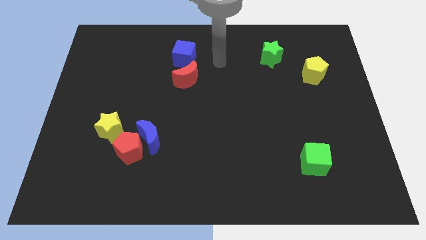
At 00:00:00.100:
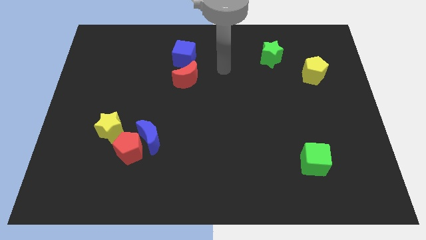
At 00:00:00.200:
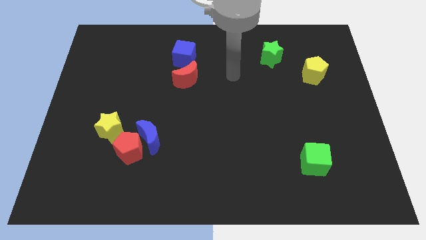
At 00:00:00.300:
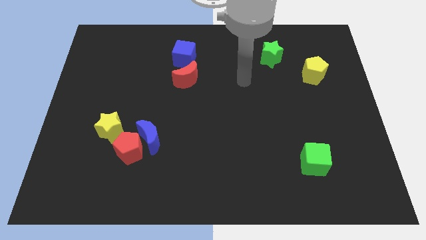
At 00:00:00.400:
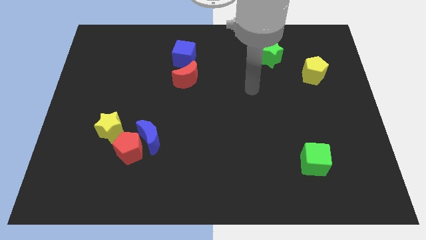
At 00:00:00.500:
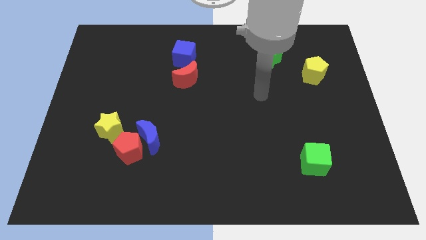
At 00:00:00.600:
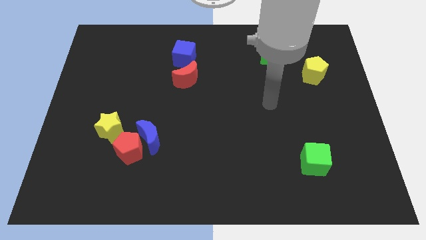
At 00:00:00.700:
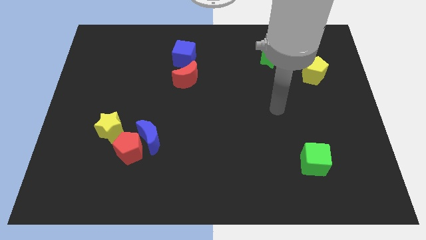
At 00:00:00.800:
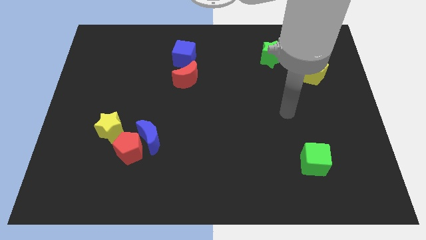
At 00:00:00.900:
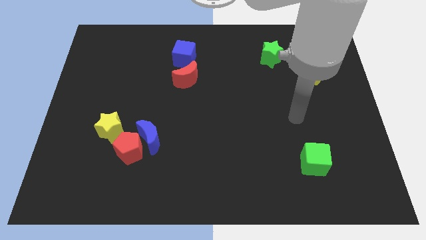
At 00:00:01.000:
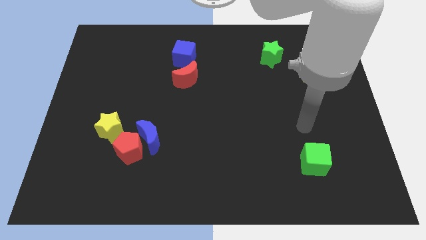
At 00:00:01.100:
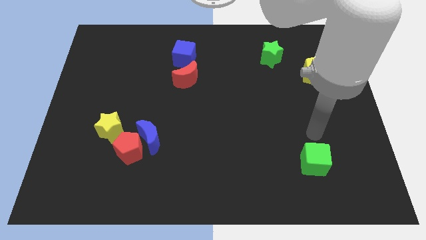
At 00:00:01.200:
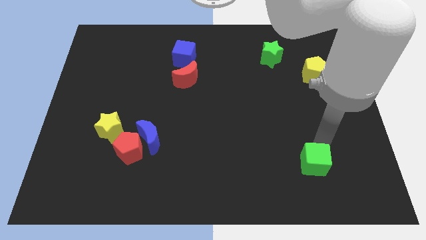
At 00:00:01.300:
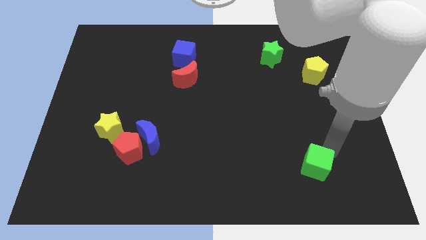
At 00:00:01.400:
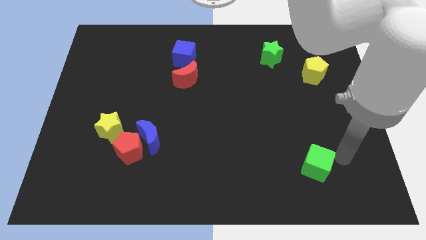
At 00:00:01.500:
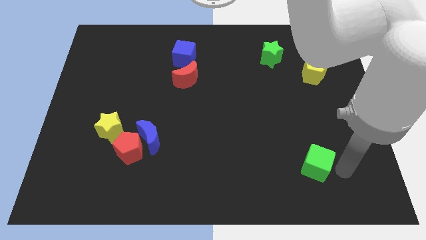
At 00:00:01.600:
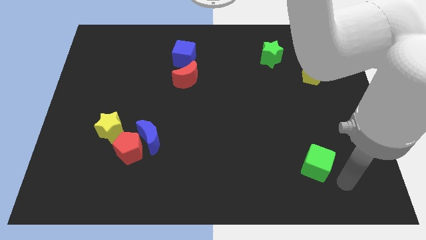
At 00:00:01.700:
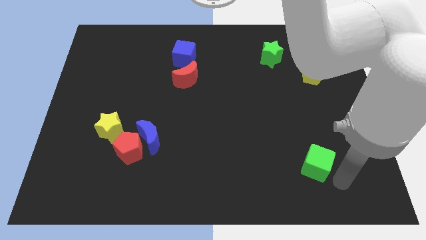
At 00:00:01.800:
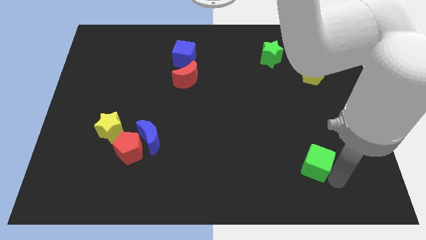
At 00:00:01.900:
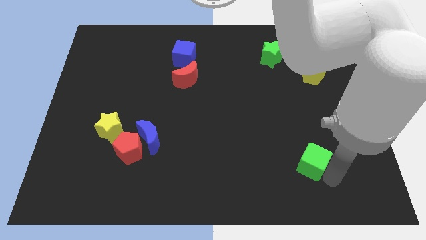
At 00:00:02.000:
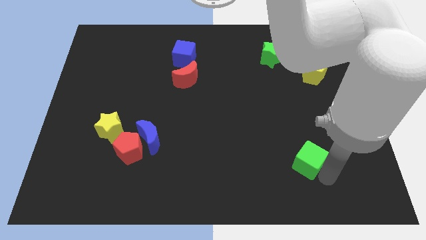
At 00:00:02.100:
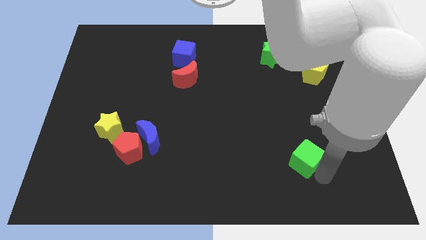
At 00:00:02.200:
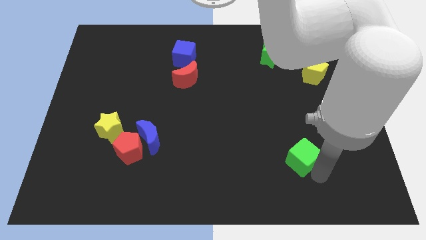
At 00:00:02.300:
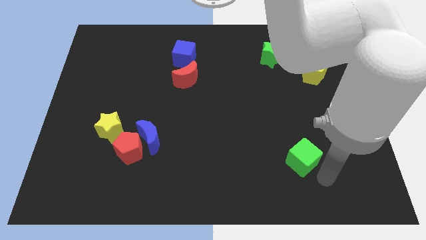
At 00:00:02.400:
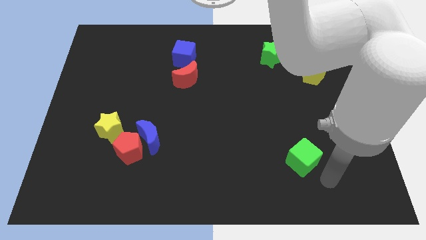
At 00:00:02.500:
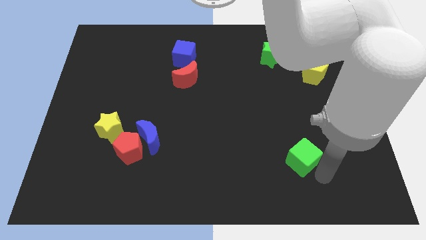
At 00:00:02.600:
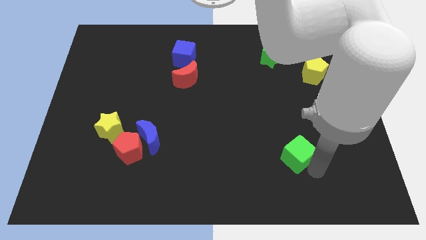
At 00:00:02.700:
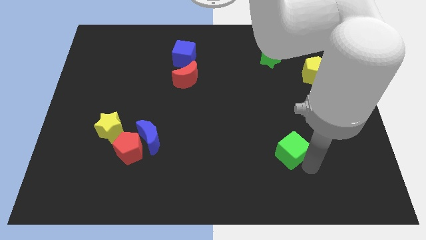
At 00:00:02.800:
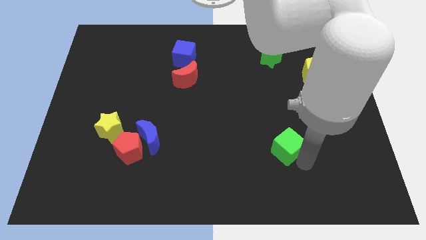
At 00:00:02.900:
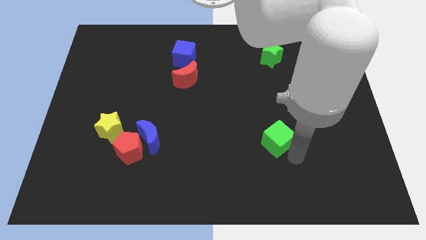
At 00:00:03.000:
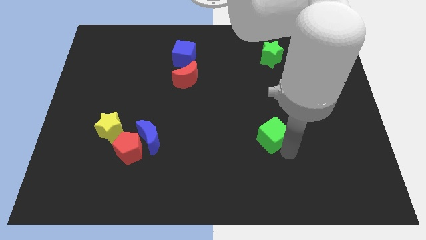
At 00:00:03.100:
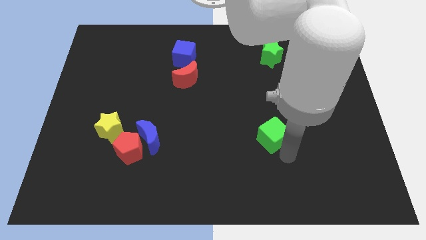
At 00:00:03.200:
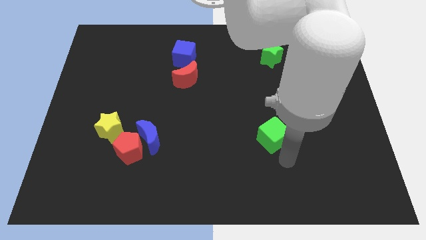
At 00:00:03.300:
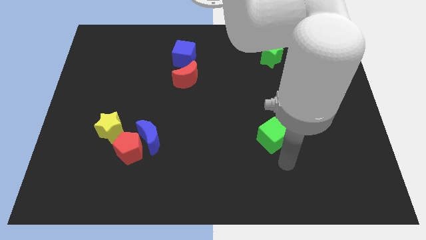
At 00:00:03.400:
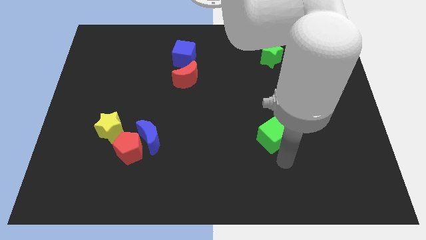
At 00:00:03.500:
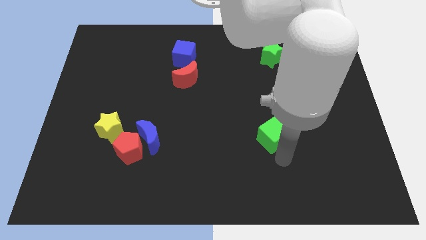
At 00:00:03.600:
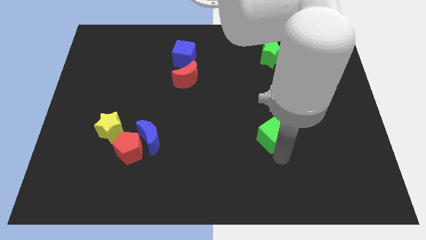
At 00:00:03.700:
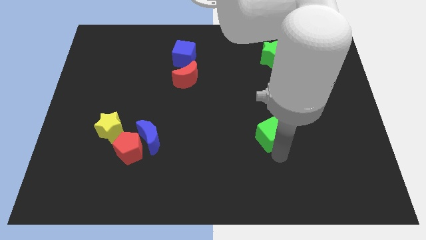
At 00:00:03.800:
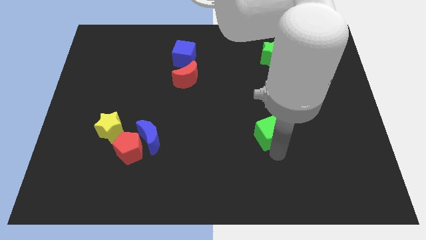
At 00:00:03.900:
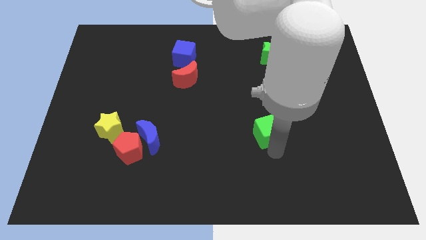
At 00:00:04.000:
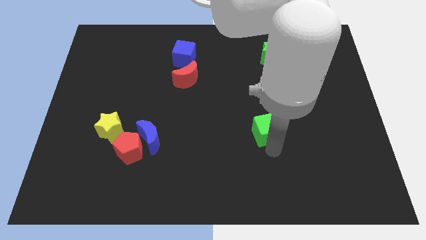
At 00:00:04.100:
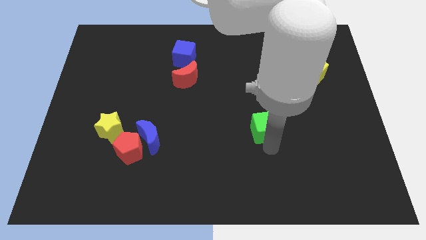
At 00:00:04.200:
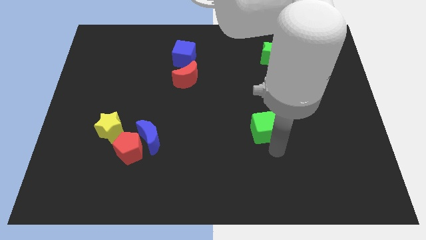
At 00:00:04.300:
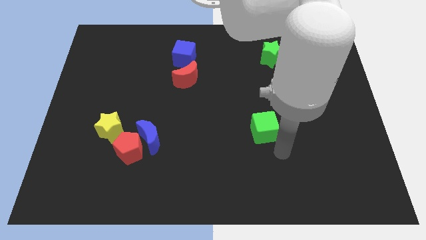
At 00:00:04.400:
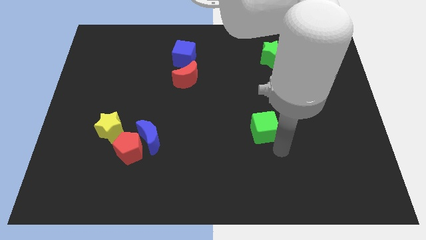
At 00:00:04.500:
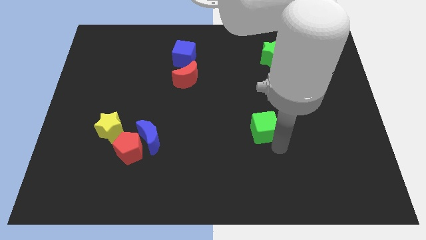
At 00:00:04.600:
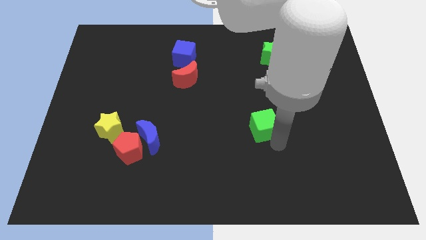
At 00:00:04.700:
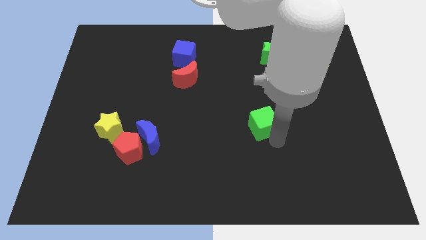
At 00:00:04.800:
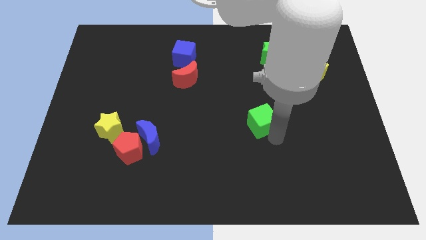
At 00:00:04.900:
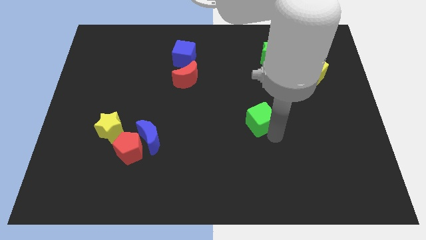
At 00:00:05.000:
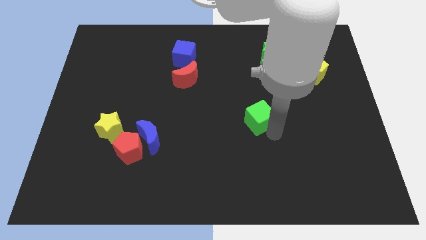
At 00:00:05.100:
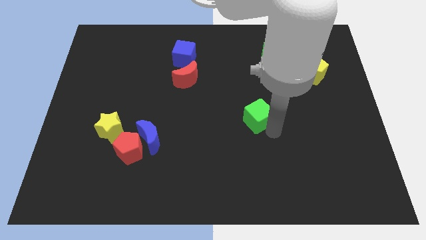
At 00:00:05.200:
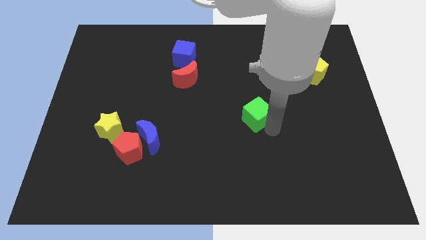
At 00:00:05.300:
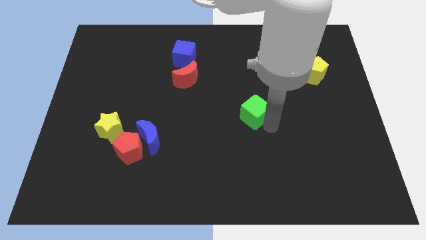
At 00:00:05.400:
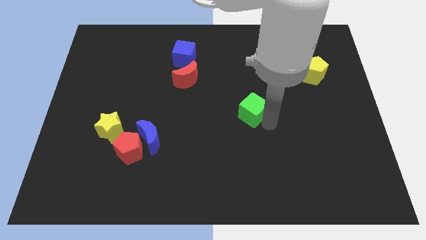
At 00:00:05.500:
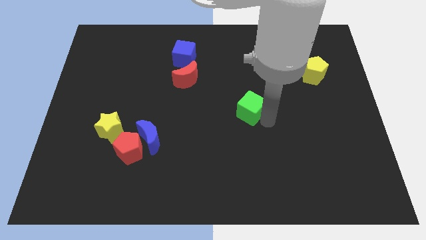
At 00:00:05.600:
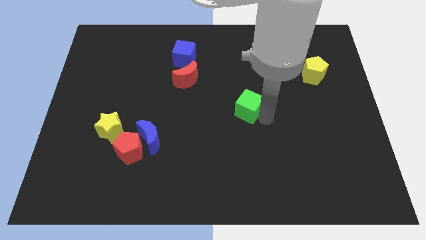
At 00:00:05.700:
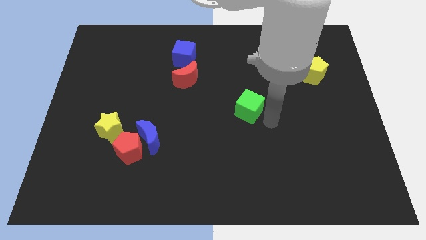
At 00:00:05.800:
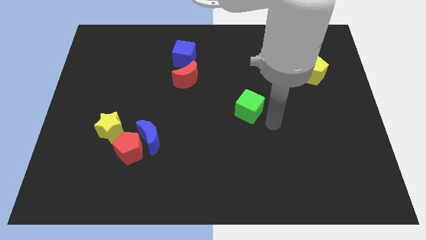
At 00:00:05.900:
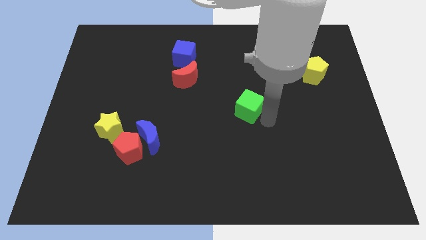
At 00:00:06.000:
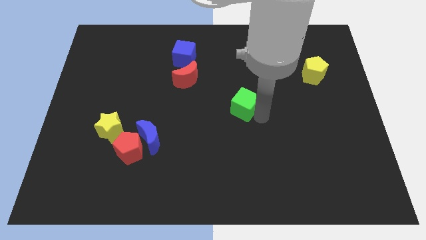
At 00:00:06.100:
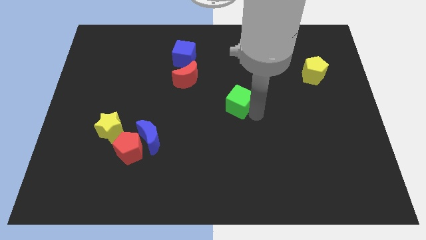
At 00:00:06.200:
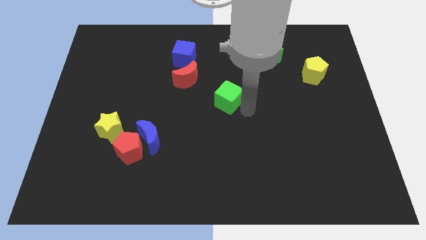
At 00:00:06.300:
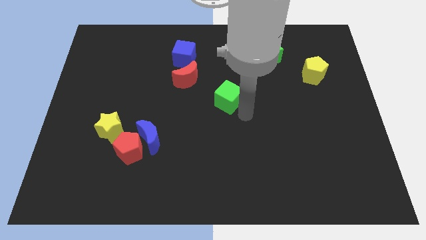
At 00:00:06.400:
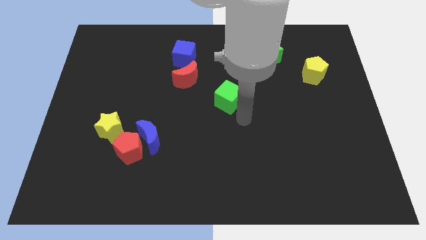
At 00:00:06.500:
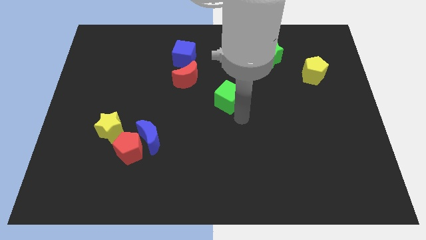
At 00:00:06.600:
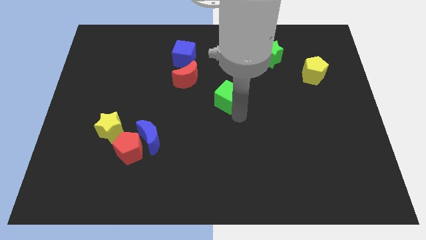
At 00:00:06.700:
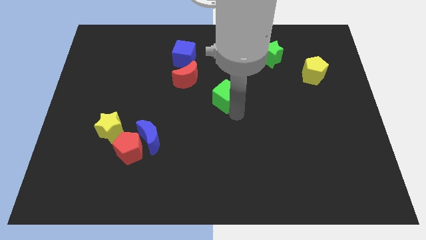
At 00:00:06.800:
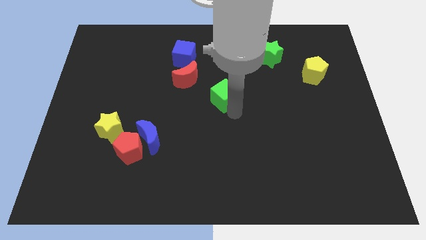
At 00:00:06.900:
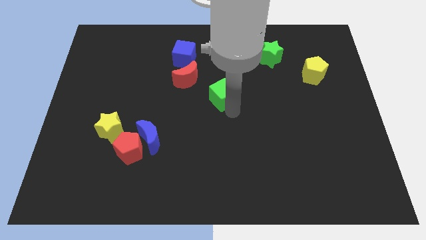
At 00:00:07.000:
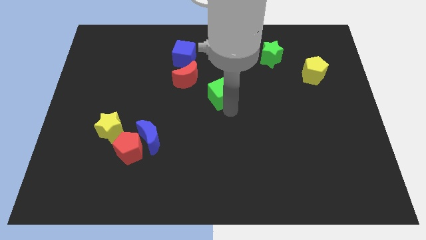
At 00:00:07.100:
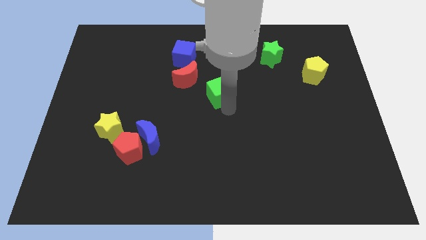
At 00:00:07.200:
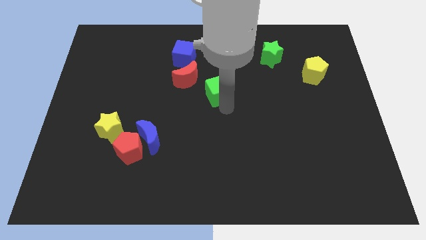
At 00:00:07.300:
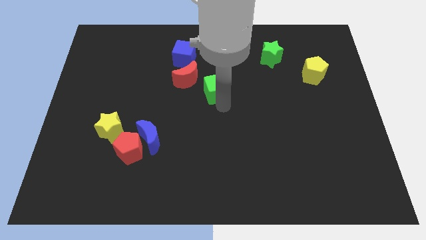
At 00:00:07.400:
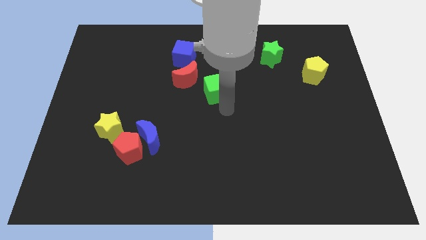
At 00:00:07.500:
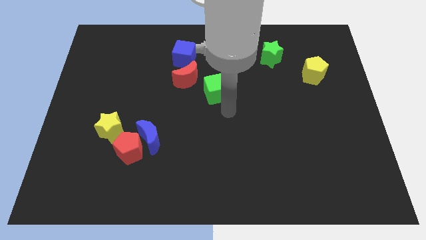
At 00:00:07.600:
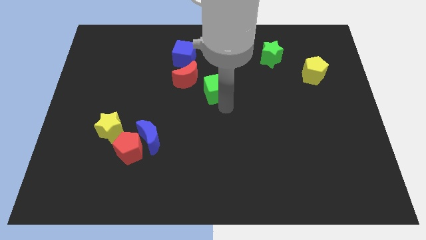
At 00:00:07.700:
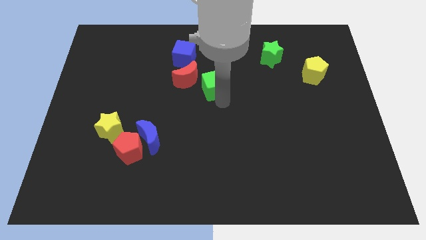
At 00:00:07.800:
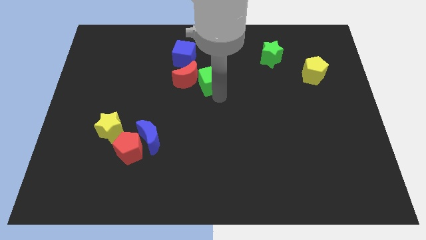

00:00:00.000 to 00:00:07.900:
push the green cube to the bottom right side of the blue cube

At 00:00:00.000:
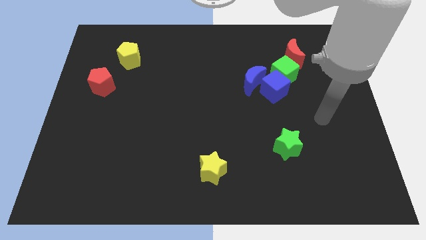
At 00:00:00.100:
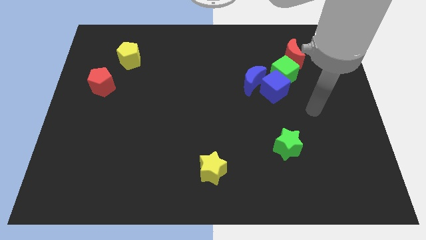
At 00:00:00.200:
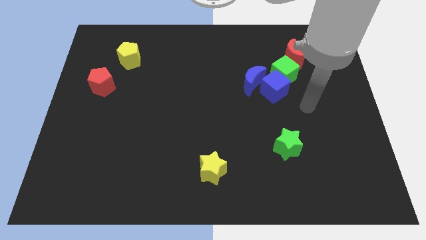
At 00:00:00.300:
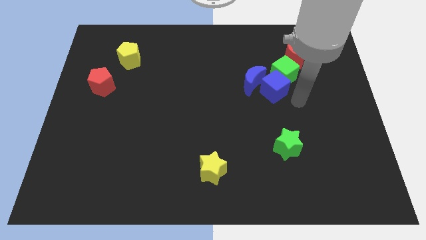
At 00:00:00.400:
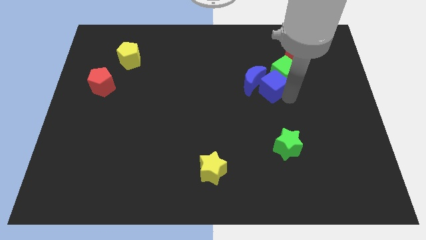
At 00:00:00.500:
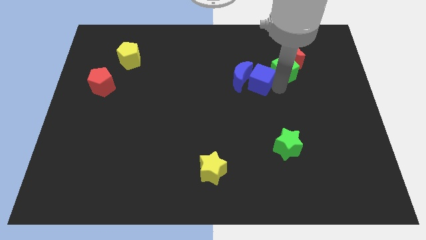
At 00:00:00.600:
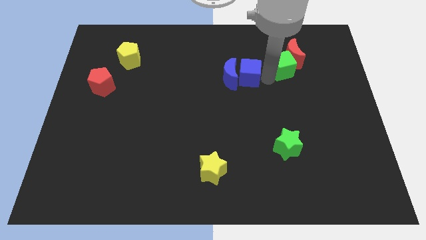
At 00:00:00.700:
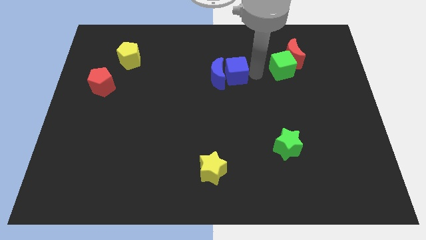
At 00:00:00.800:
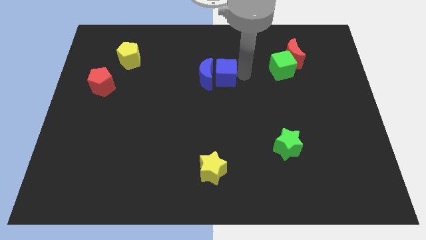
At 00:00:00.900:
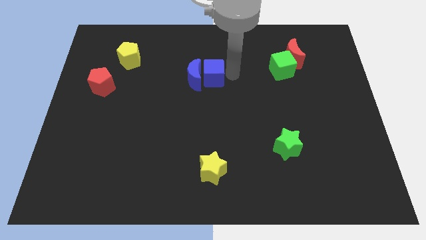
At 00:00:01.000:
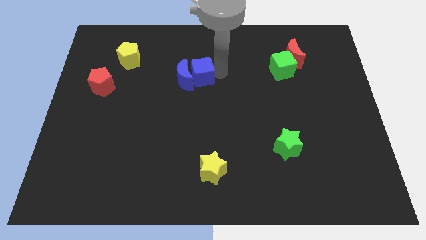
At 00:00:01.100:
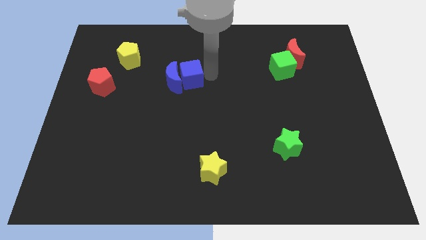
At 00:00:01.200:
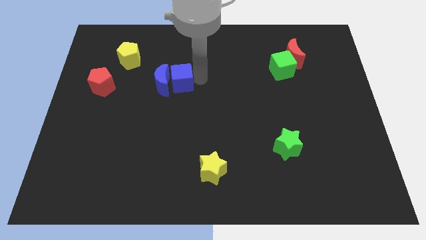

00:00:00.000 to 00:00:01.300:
slide the blue moon to the right side of the red pentagon
